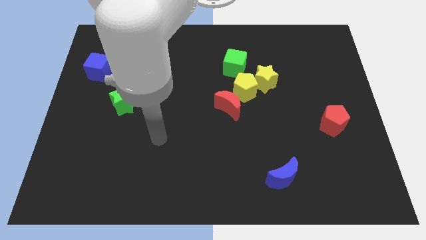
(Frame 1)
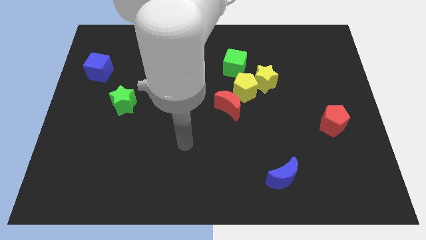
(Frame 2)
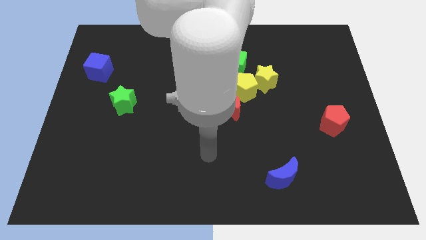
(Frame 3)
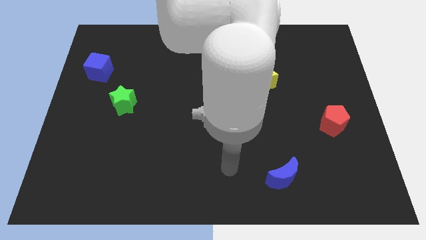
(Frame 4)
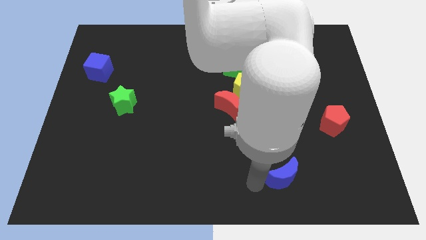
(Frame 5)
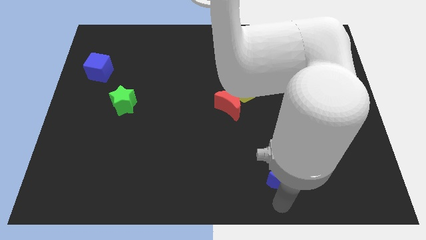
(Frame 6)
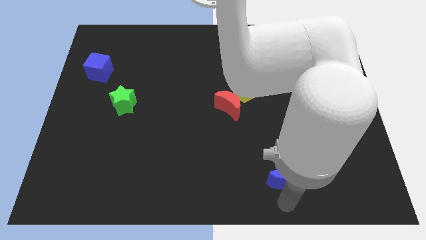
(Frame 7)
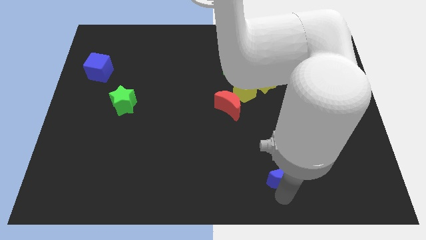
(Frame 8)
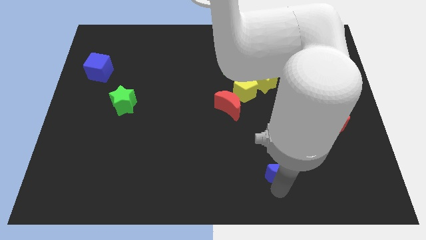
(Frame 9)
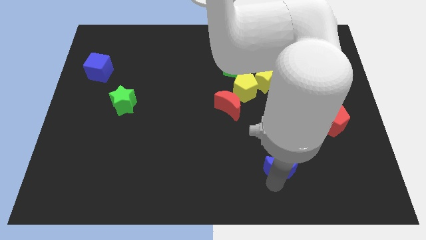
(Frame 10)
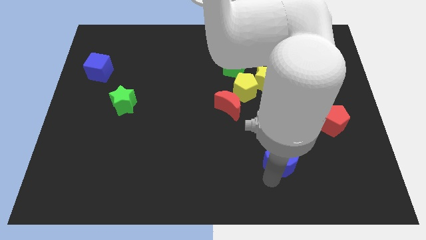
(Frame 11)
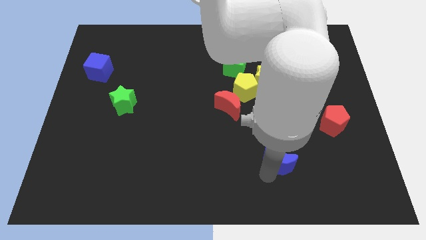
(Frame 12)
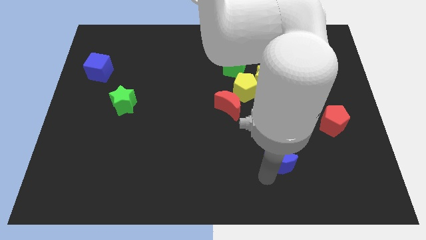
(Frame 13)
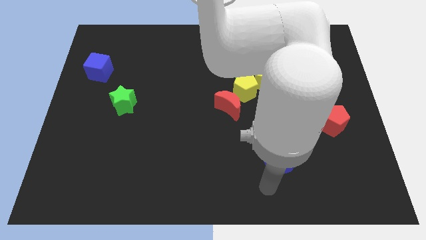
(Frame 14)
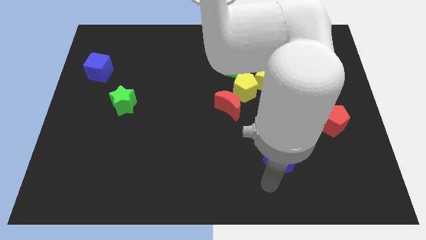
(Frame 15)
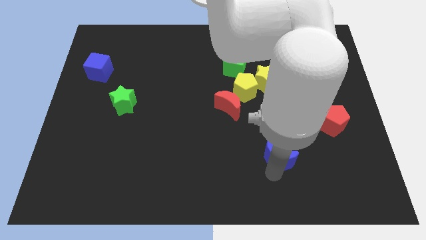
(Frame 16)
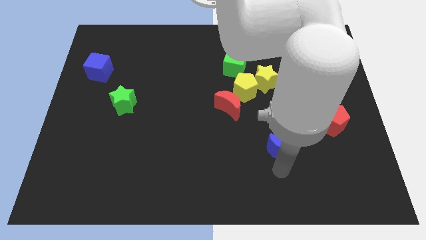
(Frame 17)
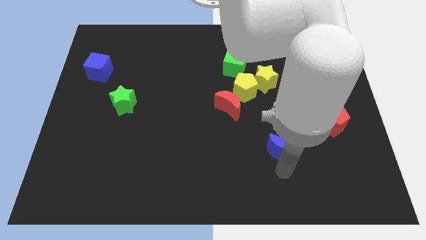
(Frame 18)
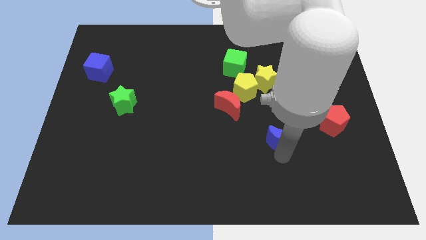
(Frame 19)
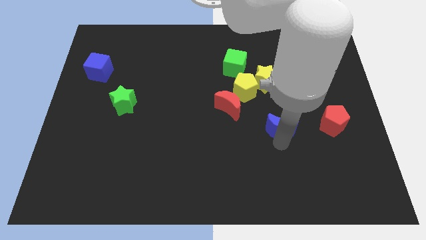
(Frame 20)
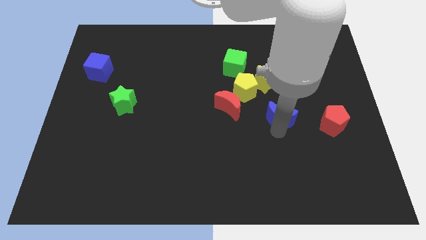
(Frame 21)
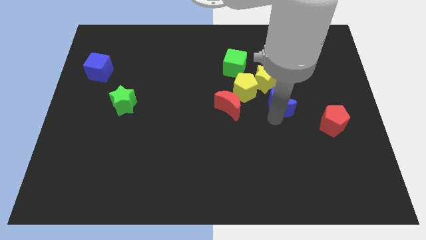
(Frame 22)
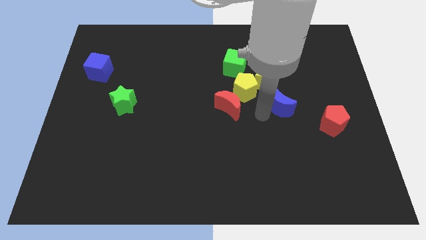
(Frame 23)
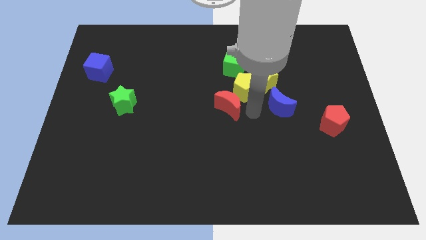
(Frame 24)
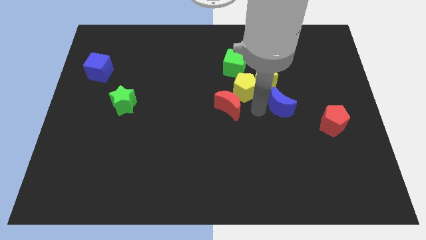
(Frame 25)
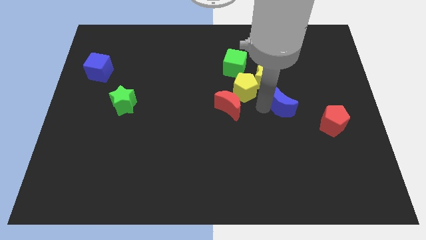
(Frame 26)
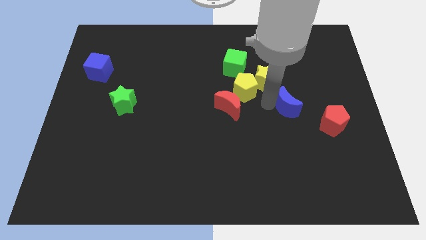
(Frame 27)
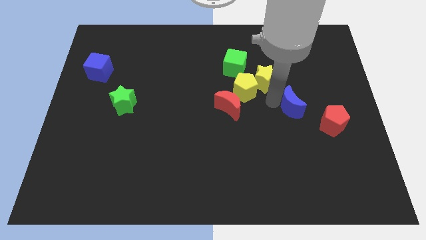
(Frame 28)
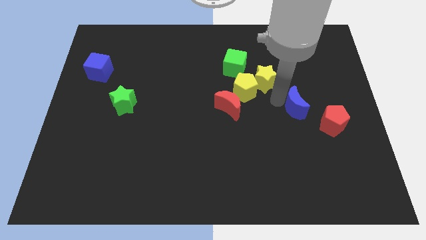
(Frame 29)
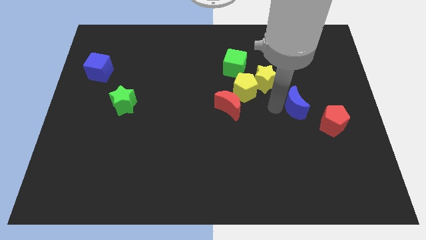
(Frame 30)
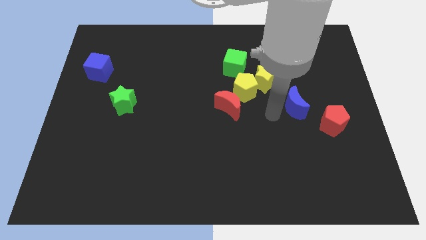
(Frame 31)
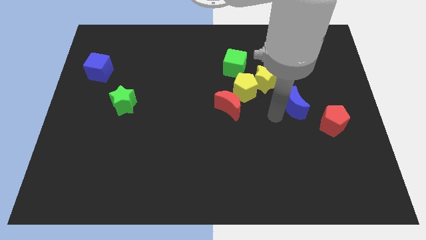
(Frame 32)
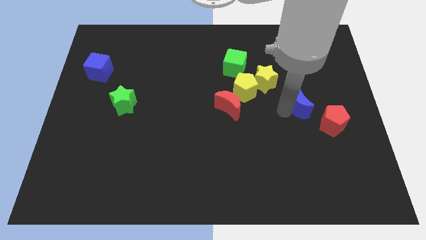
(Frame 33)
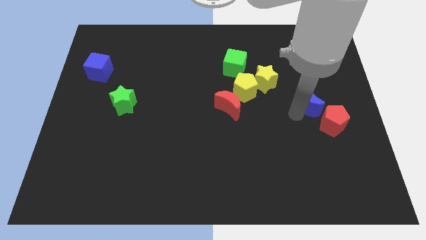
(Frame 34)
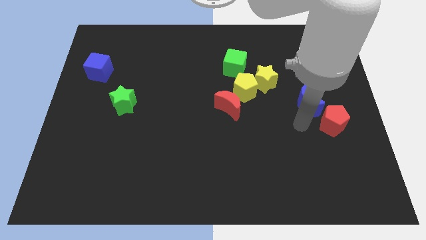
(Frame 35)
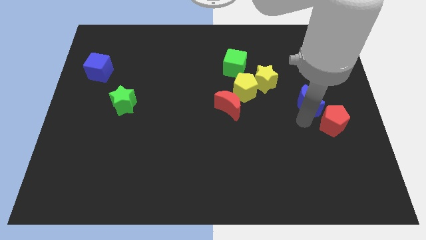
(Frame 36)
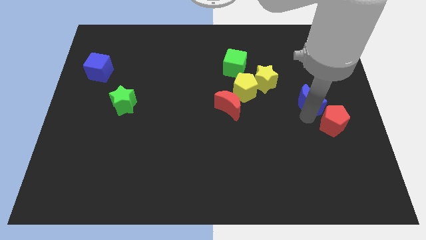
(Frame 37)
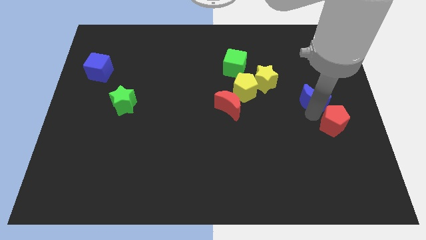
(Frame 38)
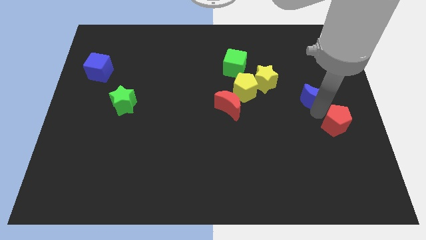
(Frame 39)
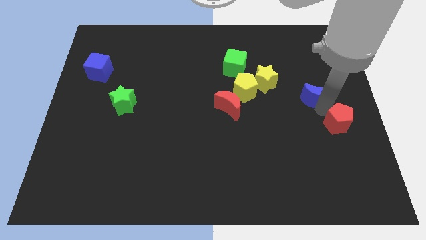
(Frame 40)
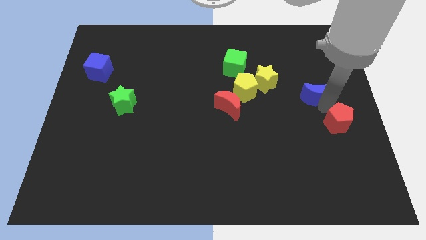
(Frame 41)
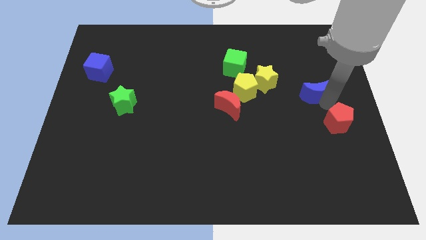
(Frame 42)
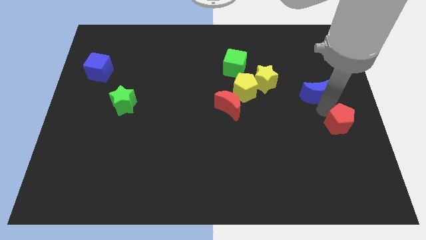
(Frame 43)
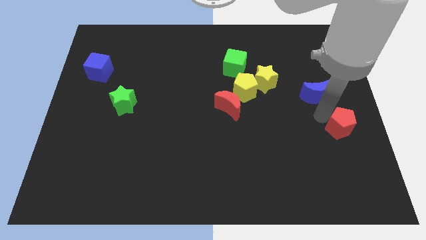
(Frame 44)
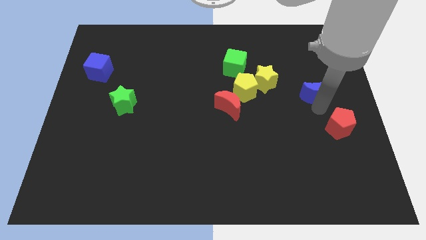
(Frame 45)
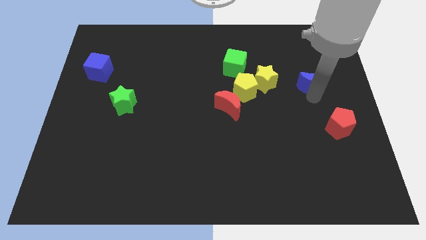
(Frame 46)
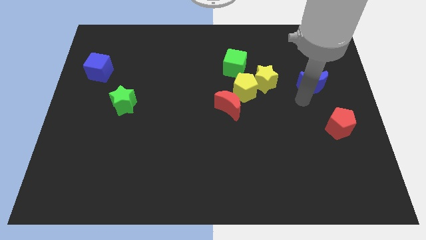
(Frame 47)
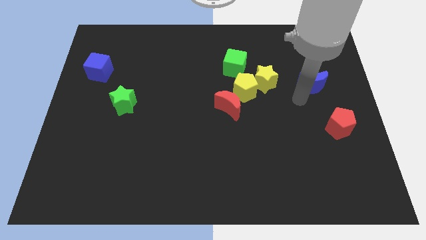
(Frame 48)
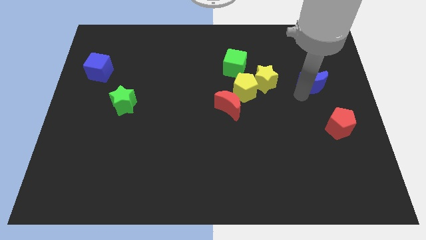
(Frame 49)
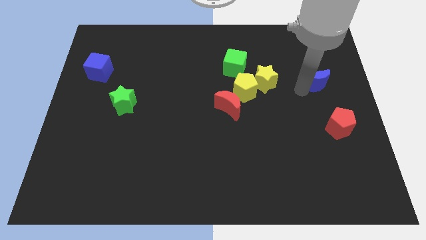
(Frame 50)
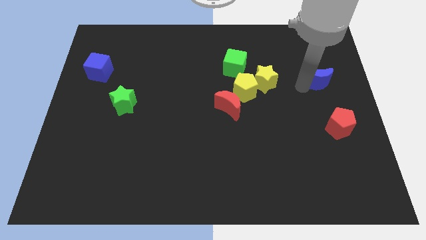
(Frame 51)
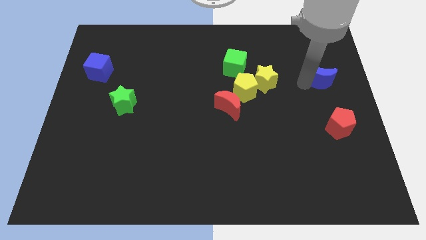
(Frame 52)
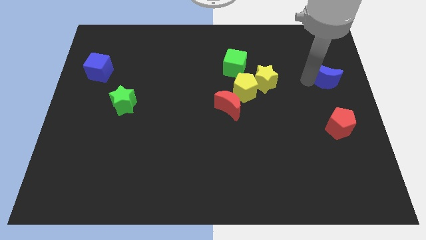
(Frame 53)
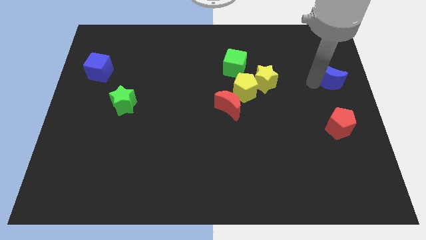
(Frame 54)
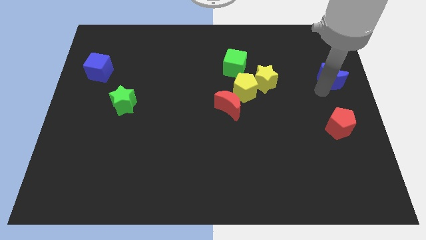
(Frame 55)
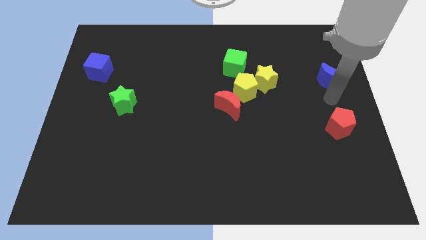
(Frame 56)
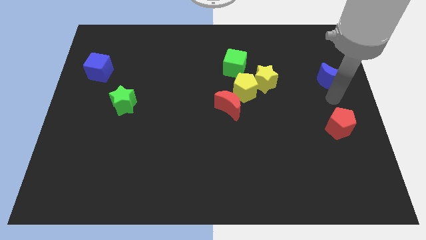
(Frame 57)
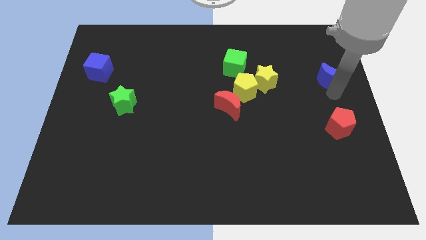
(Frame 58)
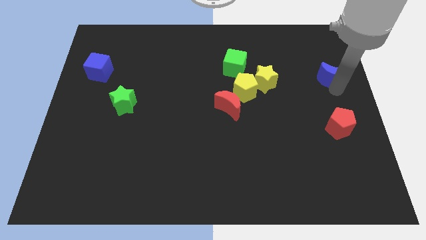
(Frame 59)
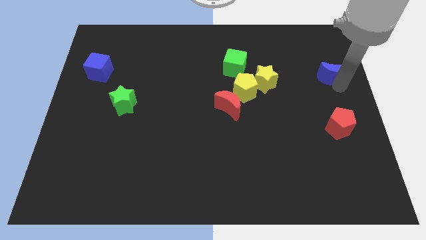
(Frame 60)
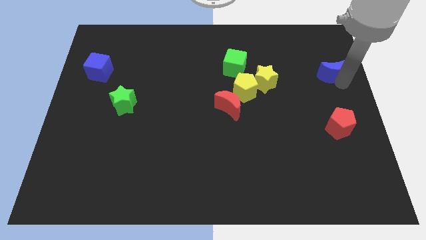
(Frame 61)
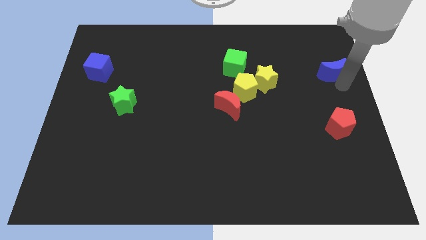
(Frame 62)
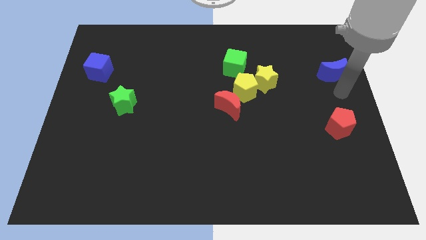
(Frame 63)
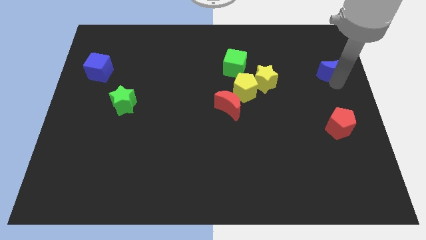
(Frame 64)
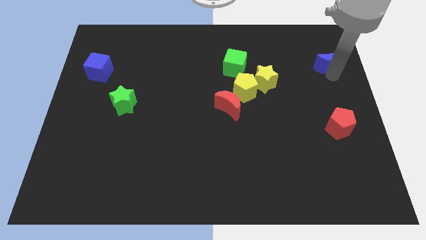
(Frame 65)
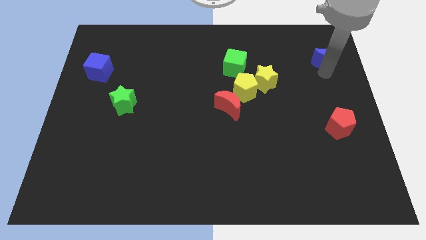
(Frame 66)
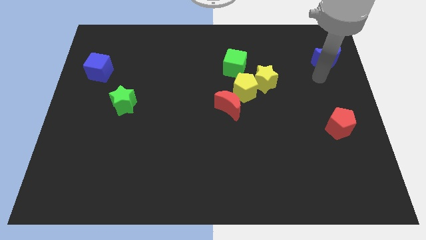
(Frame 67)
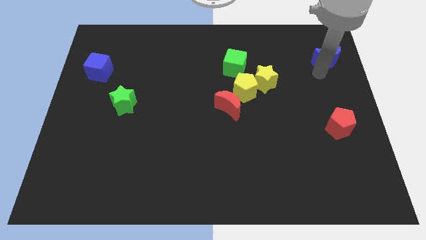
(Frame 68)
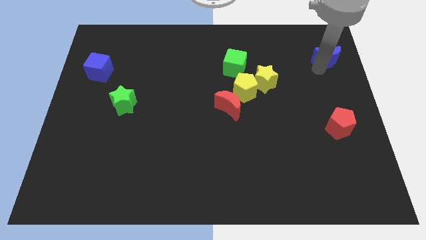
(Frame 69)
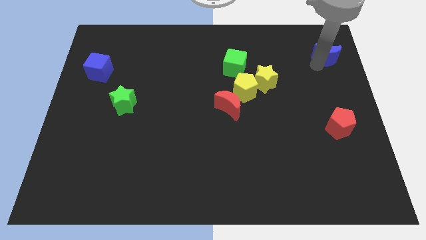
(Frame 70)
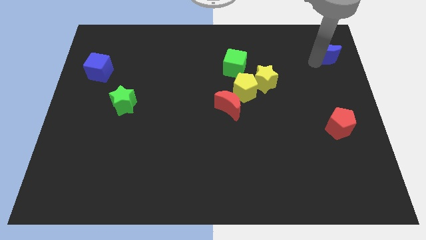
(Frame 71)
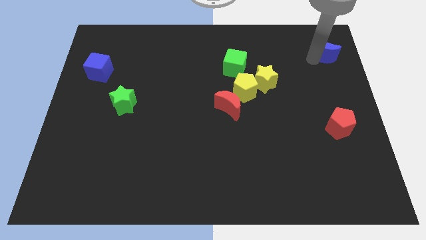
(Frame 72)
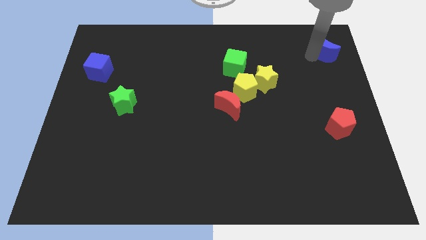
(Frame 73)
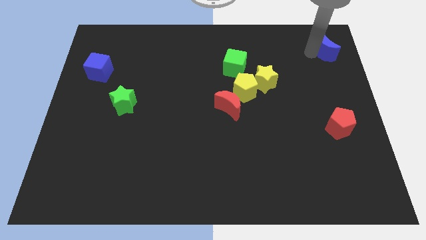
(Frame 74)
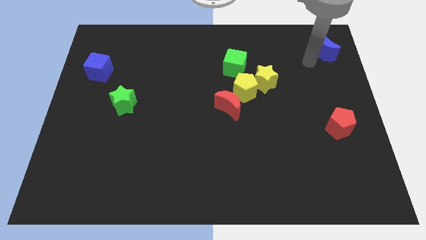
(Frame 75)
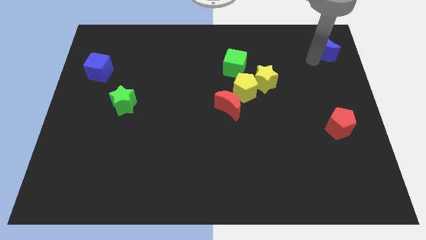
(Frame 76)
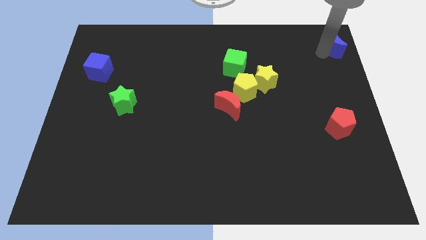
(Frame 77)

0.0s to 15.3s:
move the blue moon to the top right
